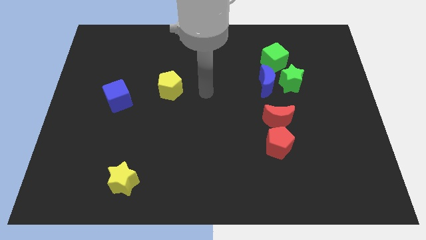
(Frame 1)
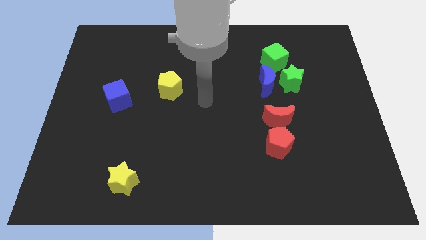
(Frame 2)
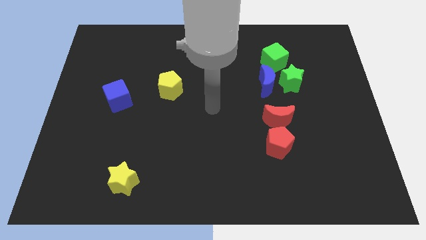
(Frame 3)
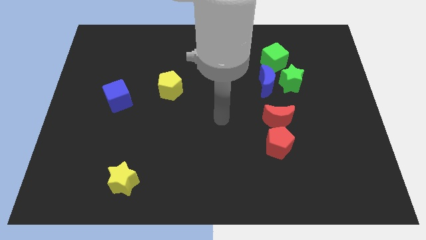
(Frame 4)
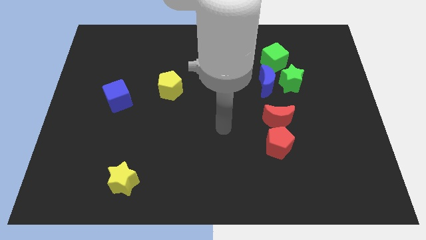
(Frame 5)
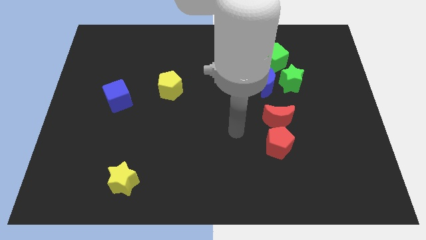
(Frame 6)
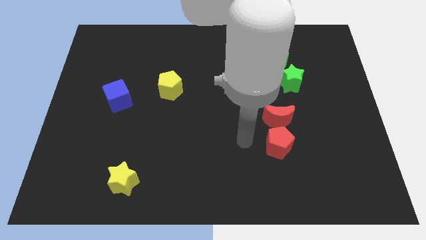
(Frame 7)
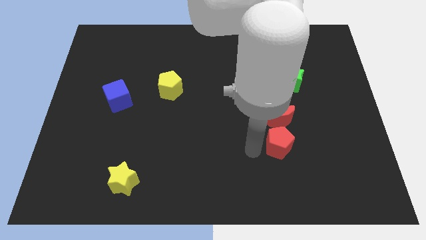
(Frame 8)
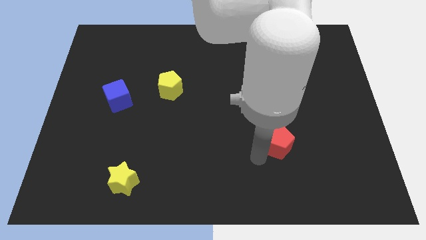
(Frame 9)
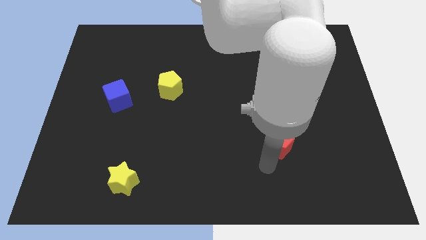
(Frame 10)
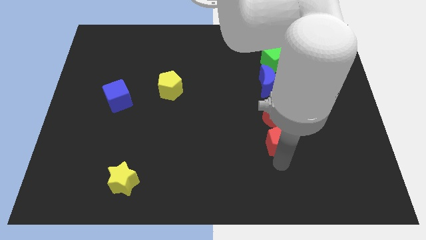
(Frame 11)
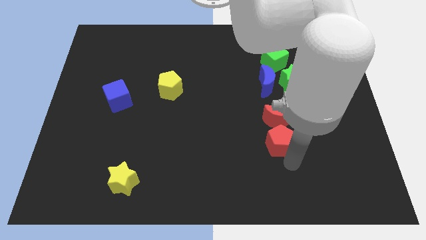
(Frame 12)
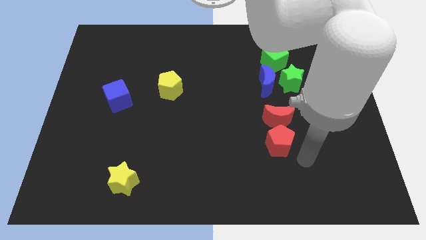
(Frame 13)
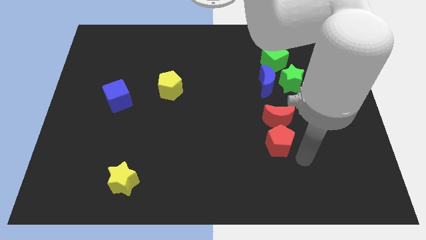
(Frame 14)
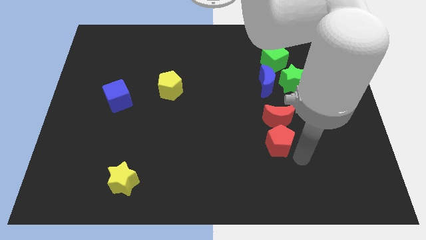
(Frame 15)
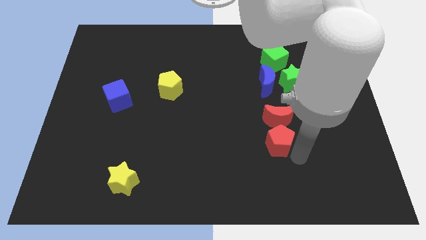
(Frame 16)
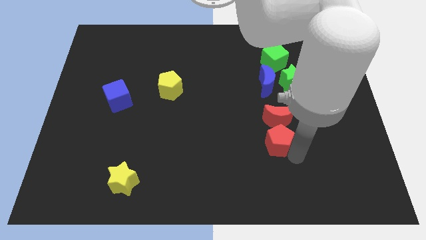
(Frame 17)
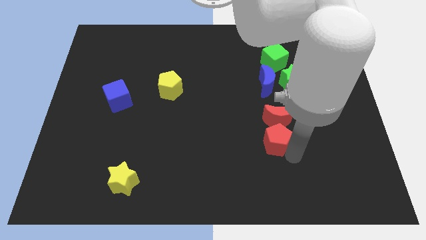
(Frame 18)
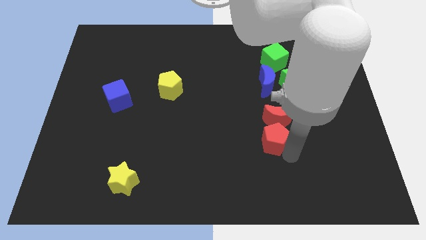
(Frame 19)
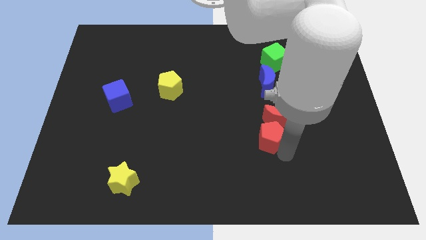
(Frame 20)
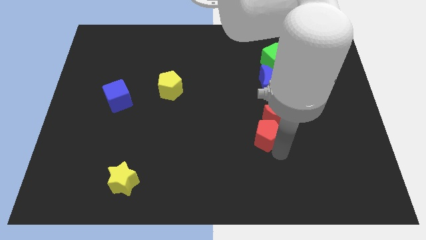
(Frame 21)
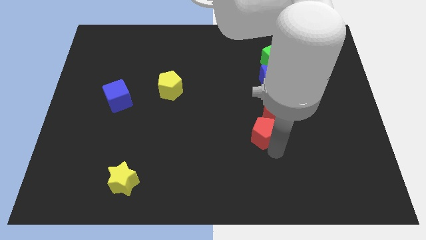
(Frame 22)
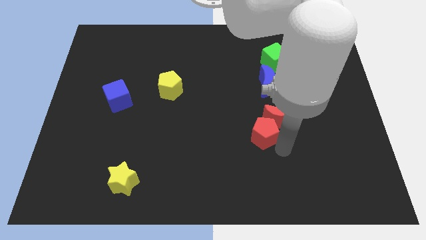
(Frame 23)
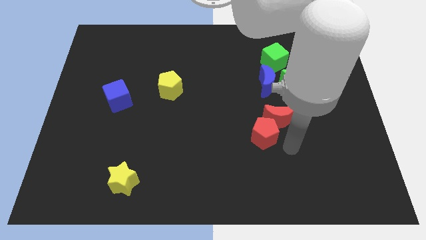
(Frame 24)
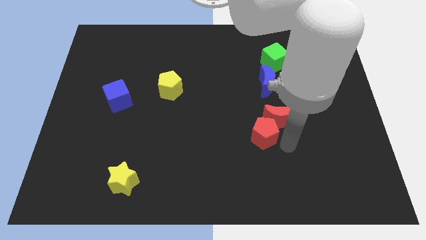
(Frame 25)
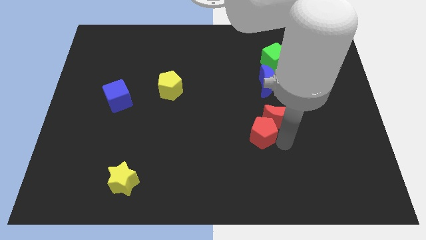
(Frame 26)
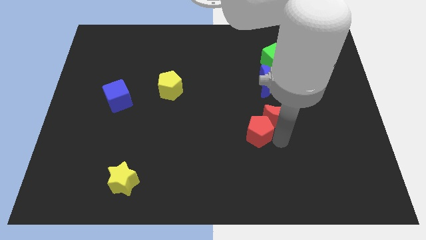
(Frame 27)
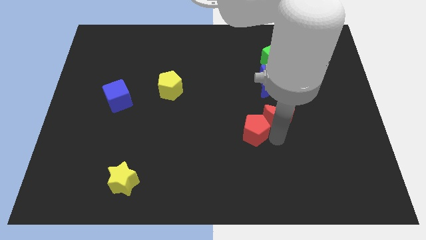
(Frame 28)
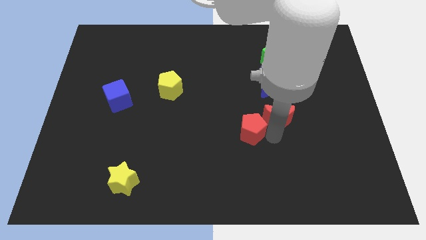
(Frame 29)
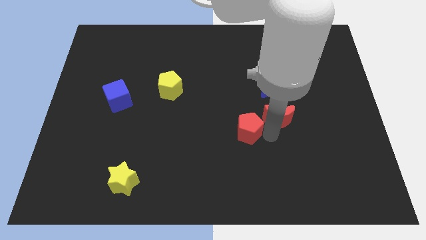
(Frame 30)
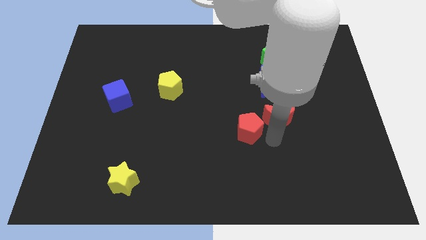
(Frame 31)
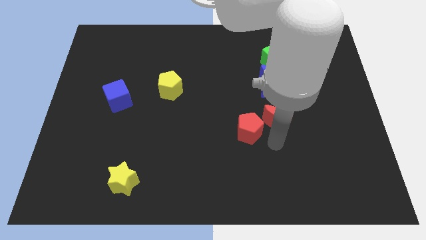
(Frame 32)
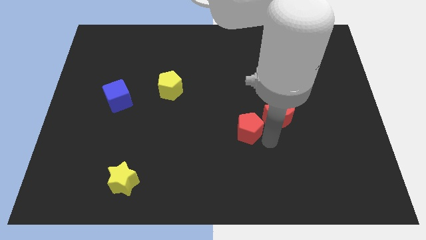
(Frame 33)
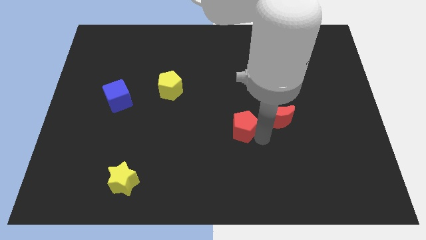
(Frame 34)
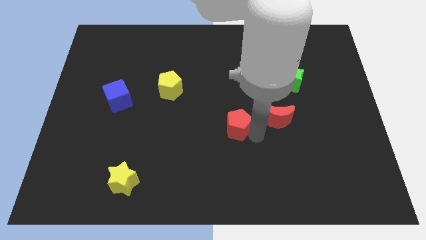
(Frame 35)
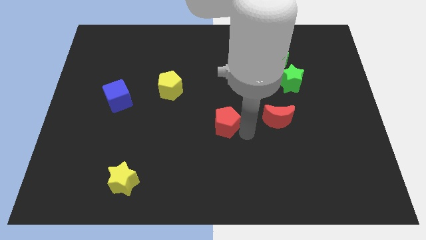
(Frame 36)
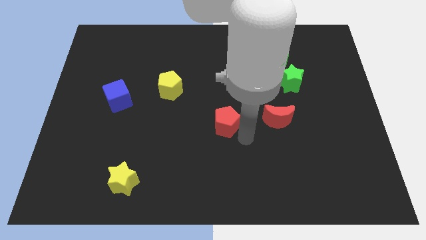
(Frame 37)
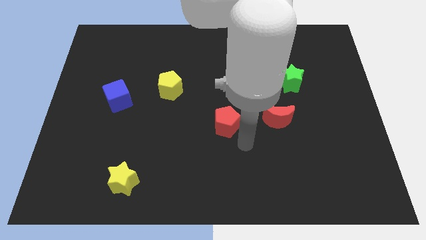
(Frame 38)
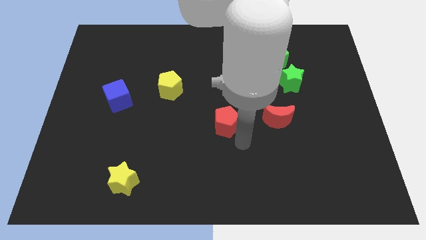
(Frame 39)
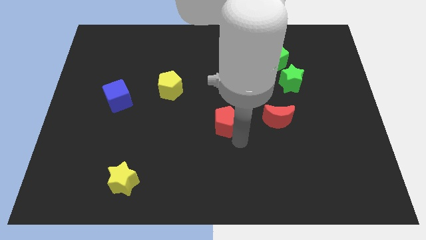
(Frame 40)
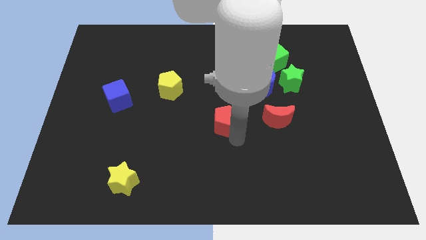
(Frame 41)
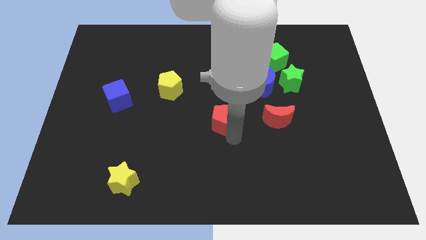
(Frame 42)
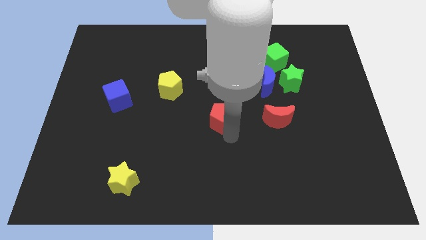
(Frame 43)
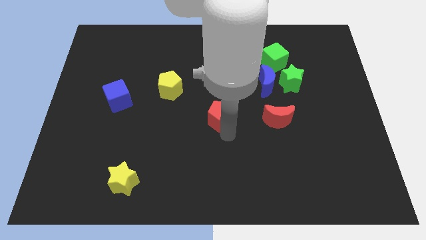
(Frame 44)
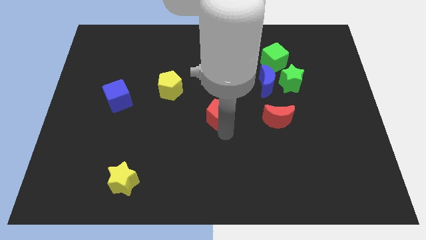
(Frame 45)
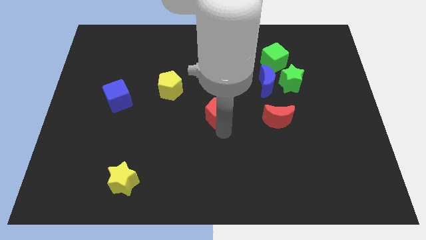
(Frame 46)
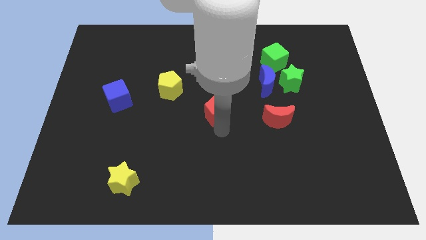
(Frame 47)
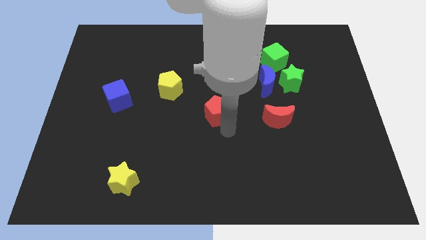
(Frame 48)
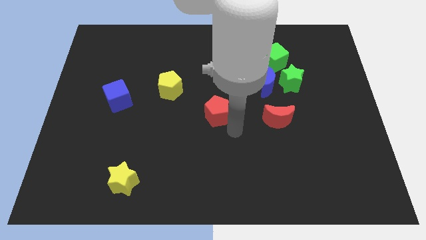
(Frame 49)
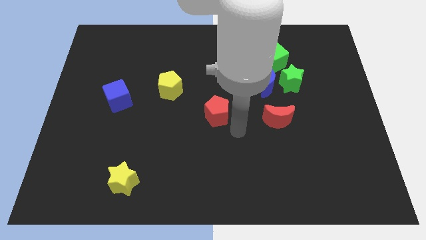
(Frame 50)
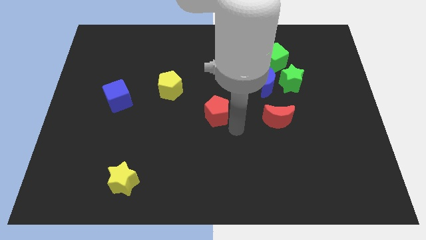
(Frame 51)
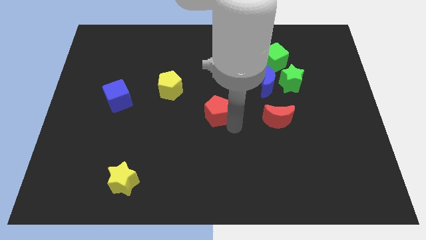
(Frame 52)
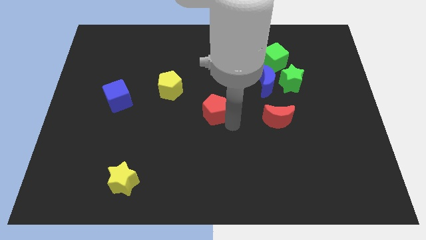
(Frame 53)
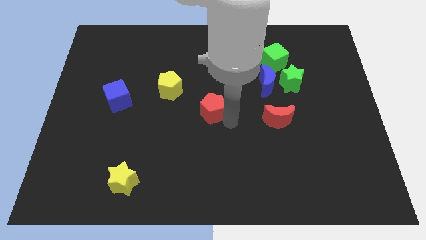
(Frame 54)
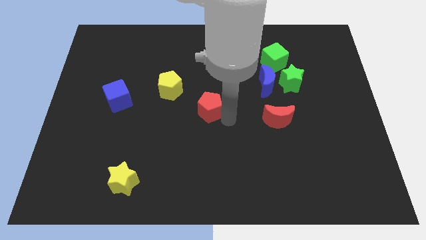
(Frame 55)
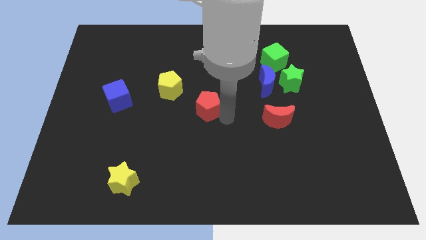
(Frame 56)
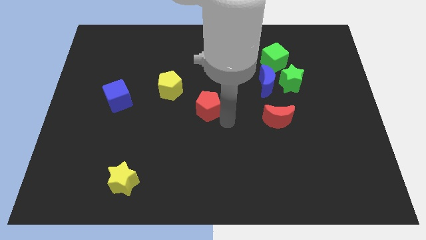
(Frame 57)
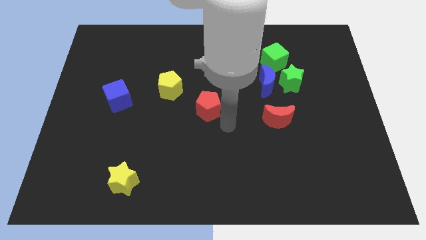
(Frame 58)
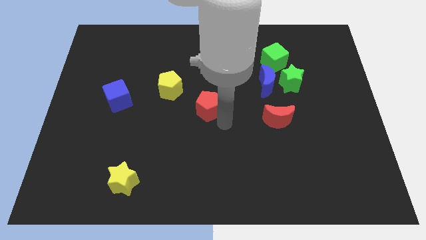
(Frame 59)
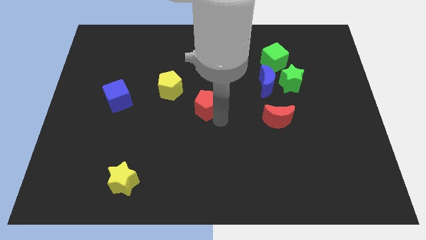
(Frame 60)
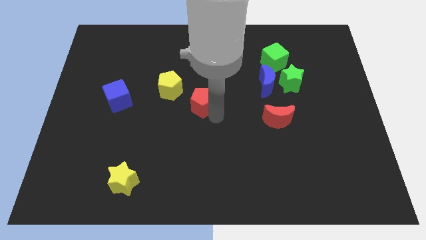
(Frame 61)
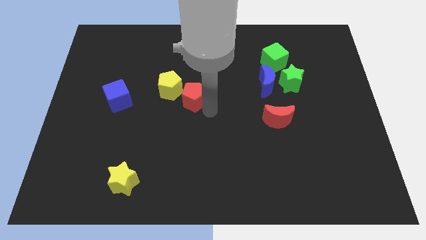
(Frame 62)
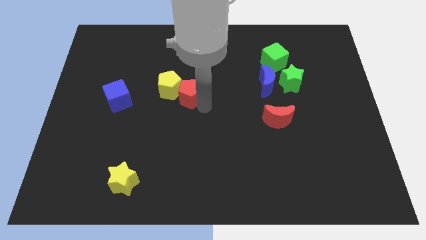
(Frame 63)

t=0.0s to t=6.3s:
slide the red pentagon to the yellow pentagon
